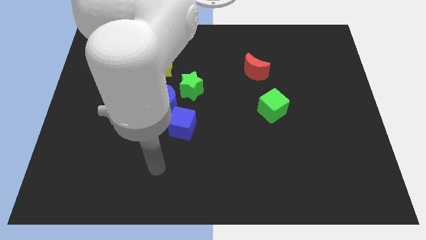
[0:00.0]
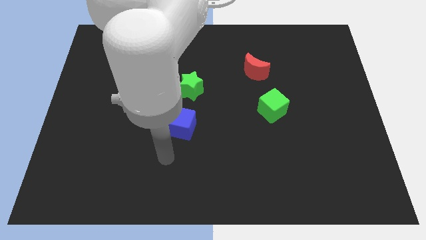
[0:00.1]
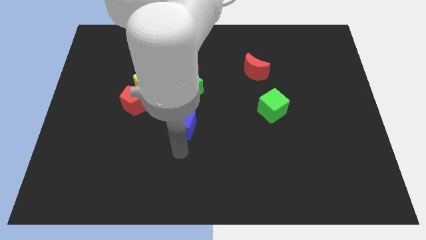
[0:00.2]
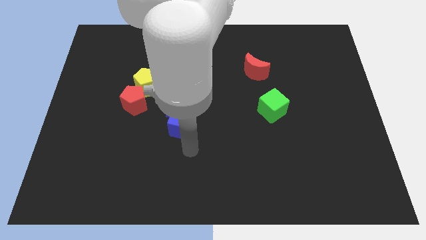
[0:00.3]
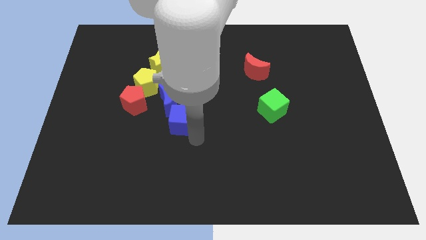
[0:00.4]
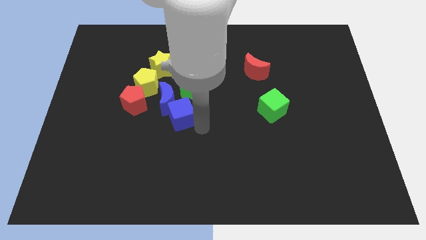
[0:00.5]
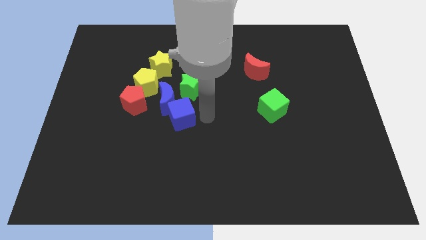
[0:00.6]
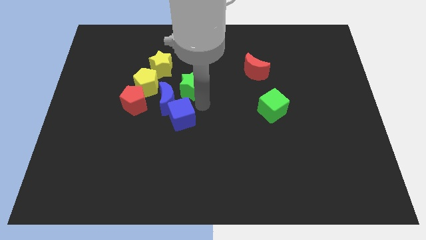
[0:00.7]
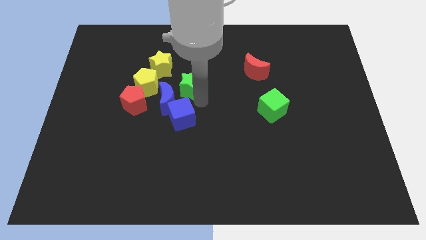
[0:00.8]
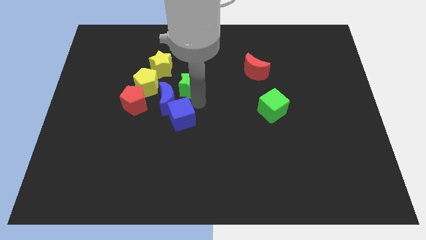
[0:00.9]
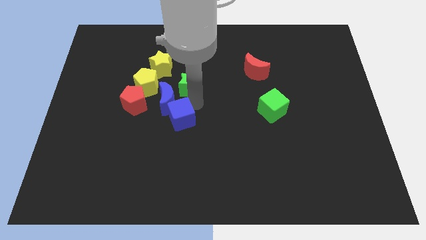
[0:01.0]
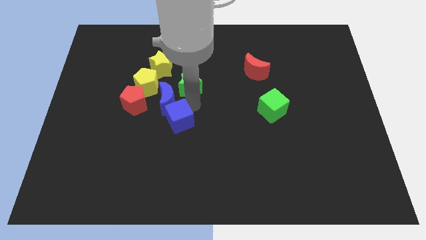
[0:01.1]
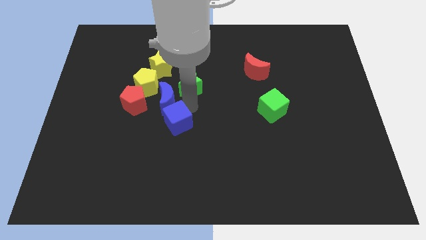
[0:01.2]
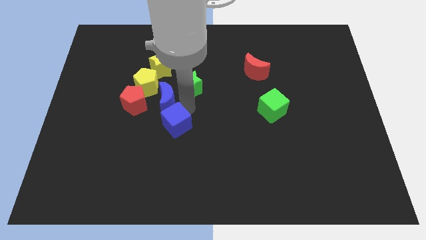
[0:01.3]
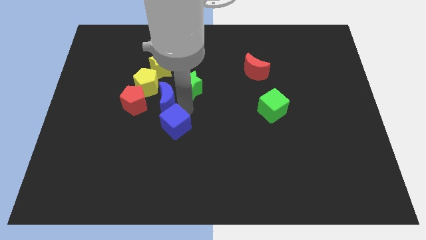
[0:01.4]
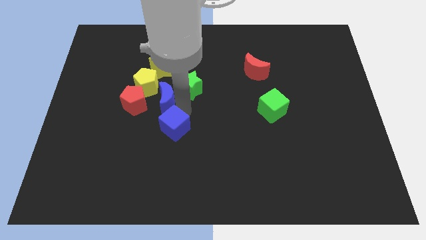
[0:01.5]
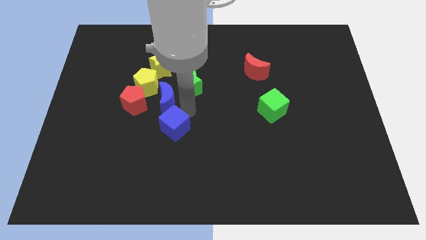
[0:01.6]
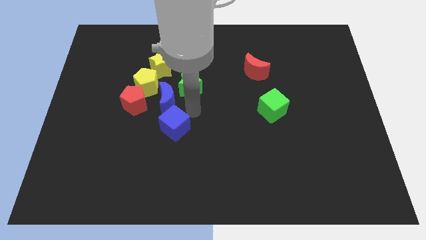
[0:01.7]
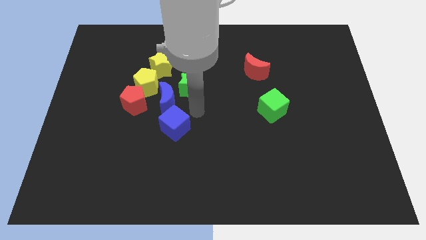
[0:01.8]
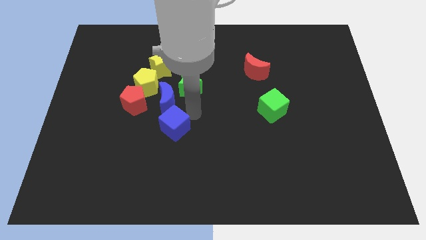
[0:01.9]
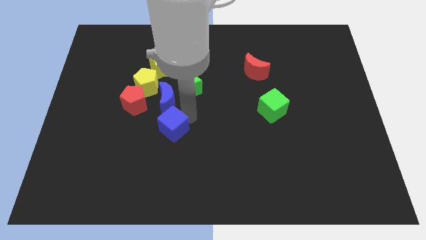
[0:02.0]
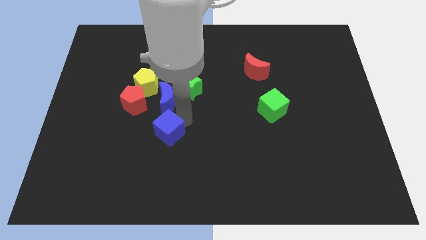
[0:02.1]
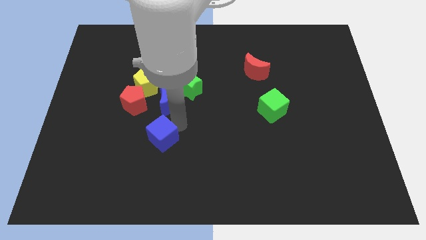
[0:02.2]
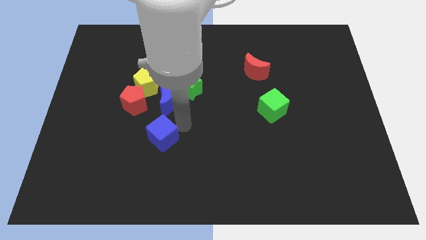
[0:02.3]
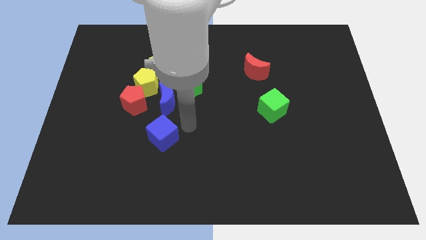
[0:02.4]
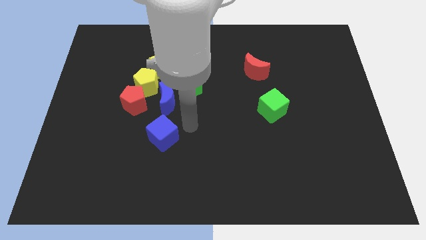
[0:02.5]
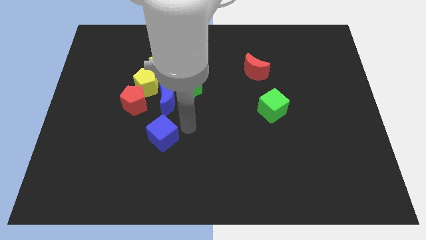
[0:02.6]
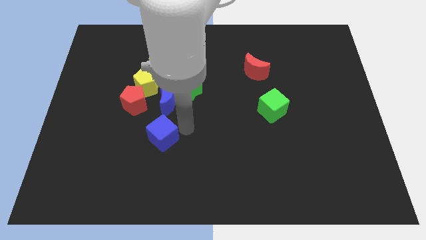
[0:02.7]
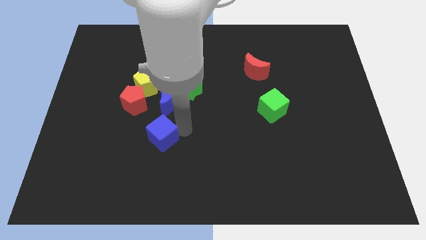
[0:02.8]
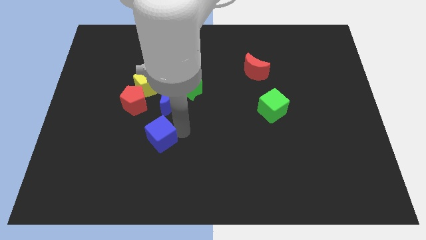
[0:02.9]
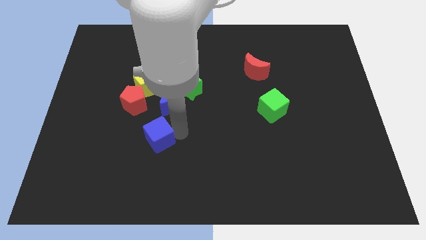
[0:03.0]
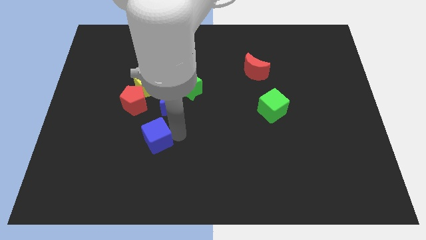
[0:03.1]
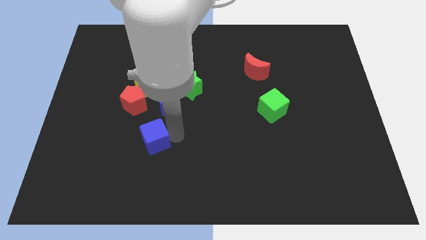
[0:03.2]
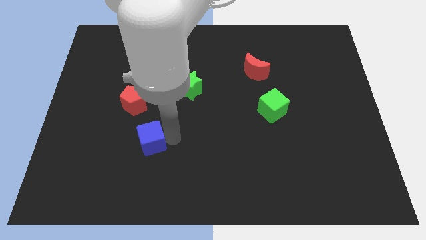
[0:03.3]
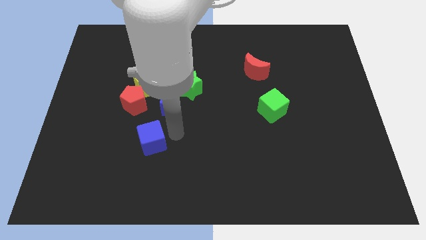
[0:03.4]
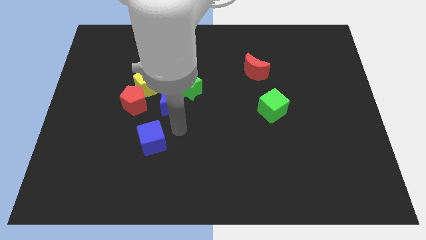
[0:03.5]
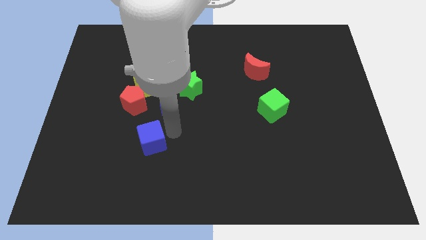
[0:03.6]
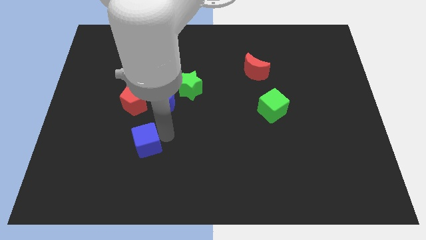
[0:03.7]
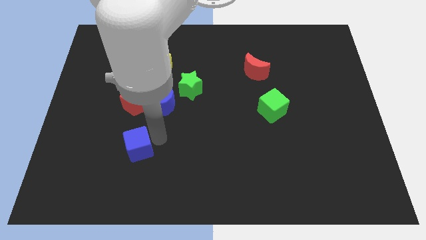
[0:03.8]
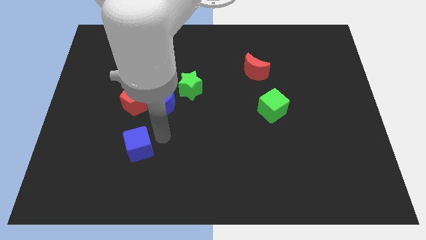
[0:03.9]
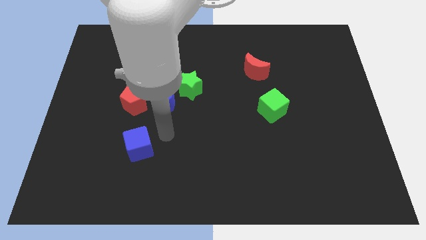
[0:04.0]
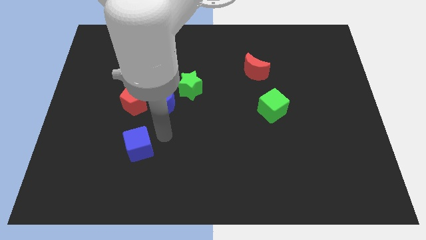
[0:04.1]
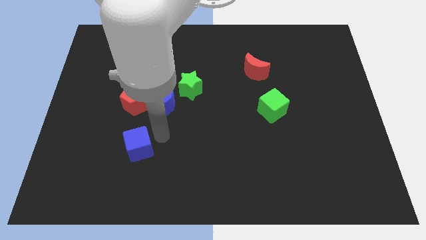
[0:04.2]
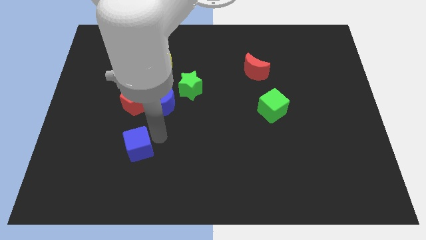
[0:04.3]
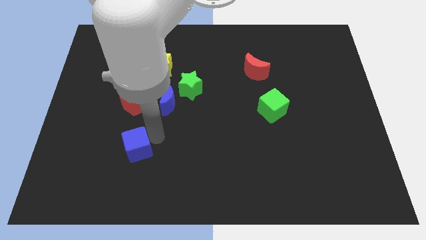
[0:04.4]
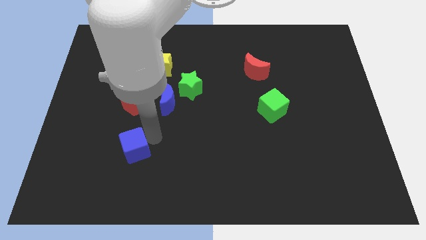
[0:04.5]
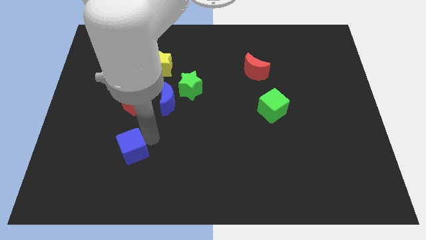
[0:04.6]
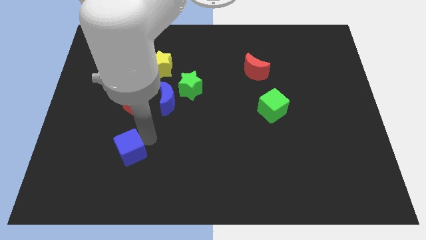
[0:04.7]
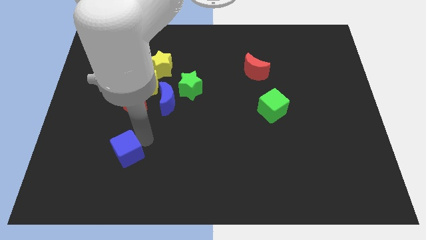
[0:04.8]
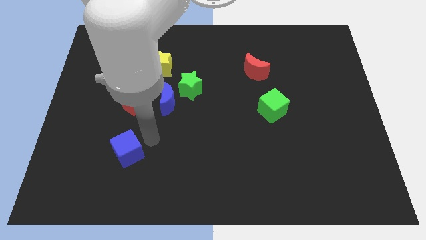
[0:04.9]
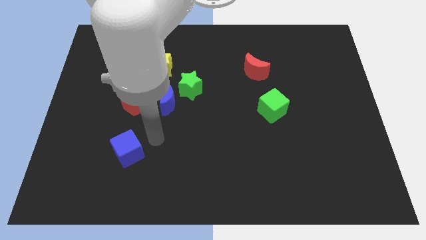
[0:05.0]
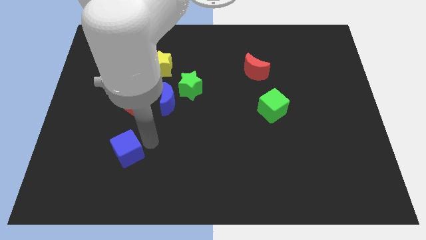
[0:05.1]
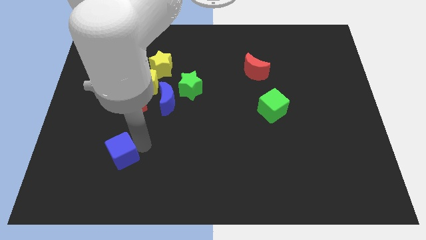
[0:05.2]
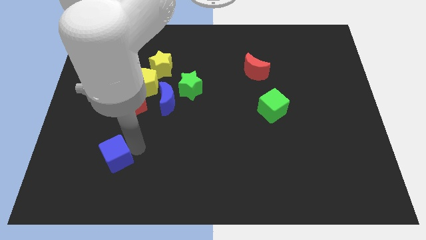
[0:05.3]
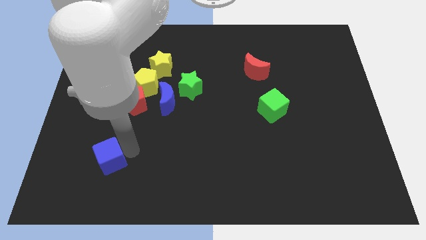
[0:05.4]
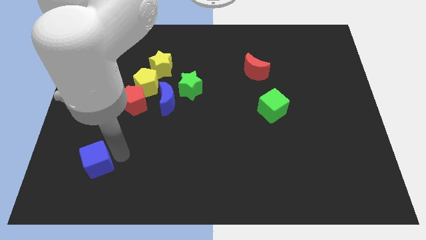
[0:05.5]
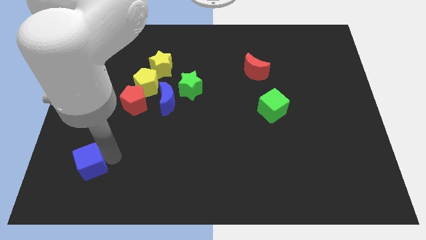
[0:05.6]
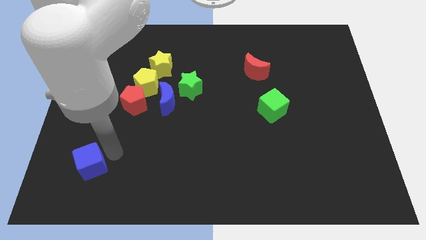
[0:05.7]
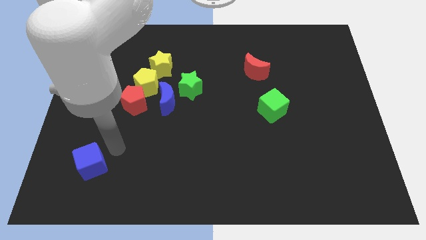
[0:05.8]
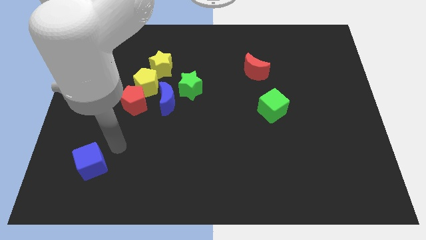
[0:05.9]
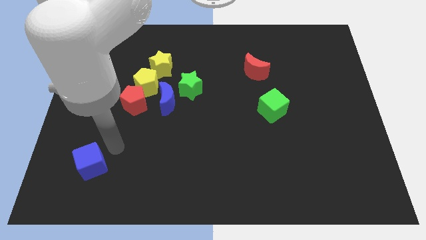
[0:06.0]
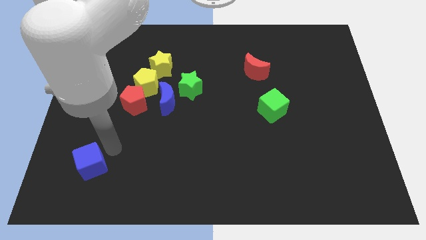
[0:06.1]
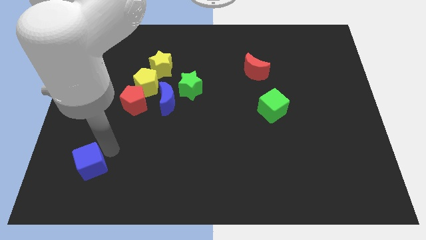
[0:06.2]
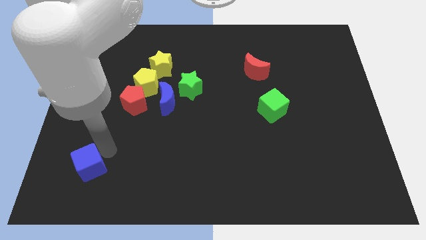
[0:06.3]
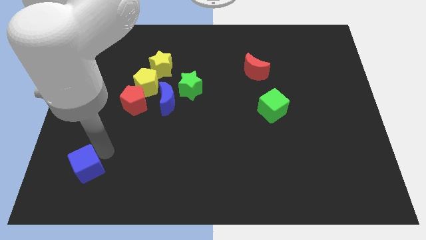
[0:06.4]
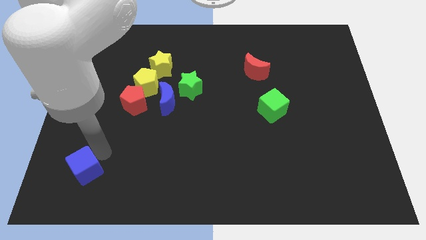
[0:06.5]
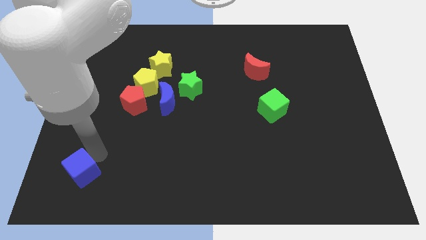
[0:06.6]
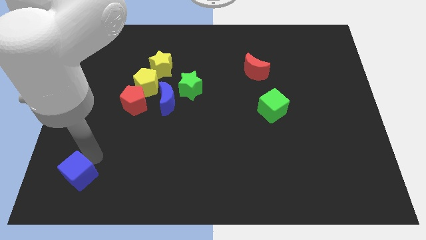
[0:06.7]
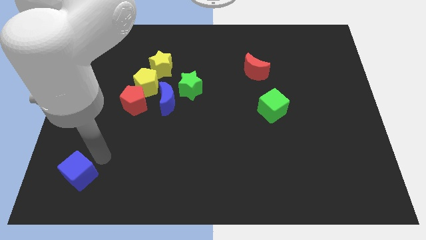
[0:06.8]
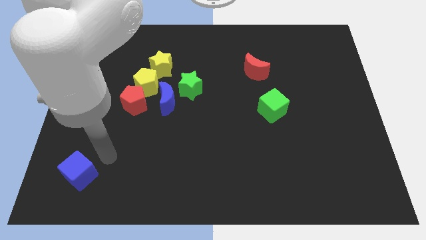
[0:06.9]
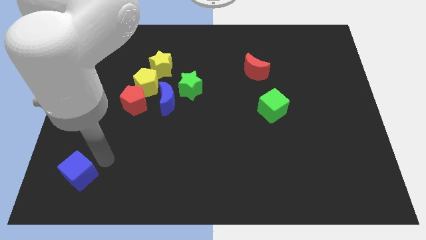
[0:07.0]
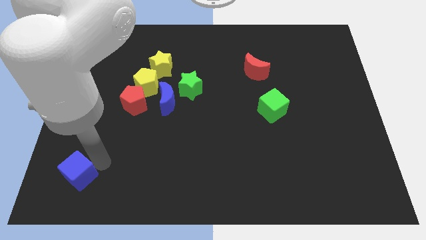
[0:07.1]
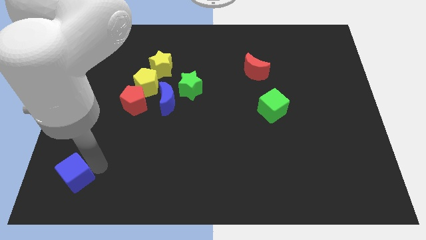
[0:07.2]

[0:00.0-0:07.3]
put the blue cube to the lower left corner
